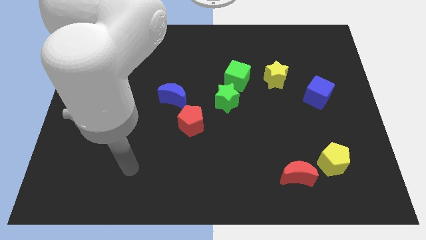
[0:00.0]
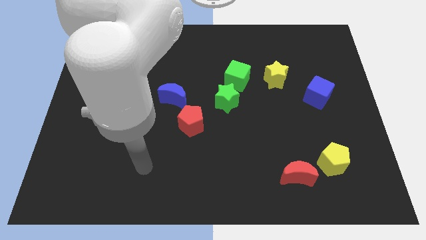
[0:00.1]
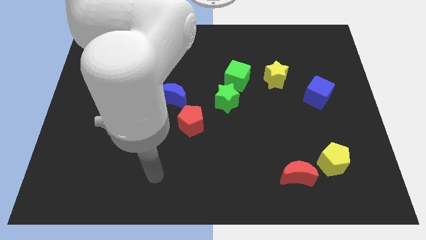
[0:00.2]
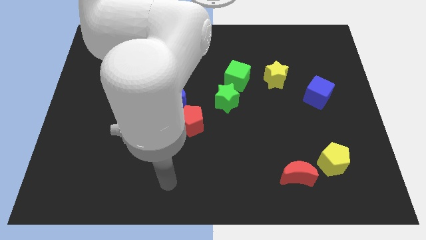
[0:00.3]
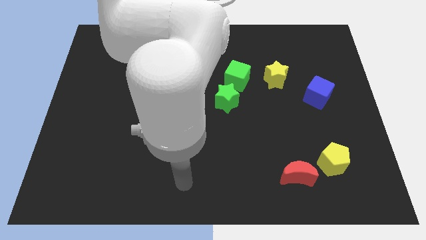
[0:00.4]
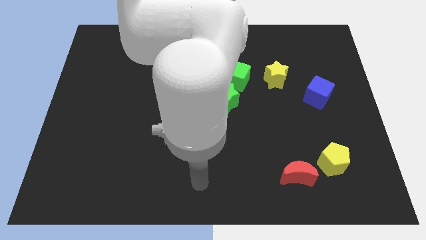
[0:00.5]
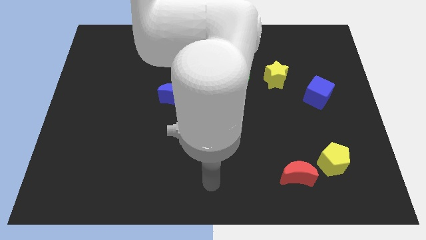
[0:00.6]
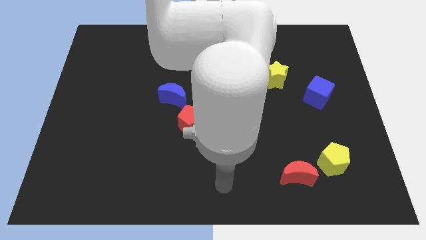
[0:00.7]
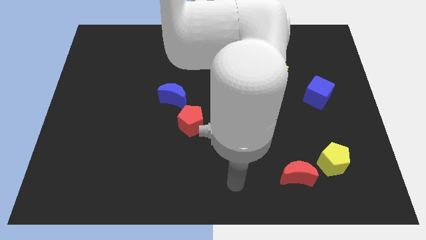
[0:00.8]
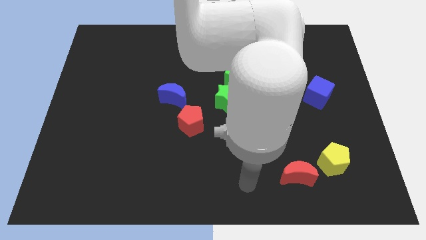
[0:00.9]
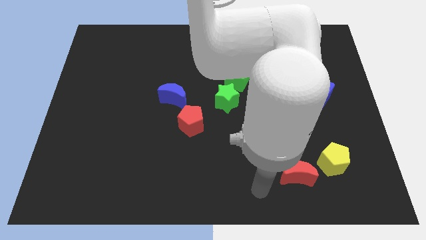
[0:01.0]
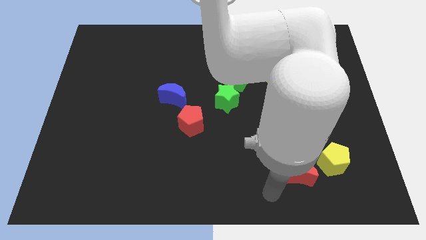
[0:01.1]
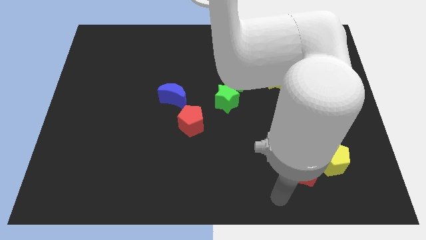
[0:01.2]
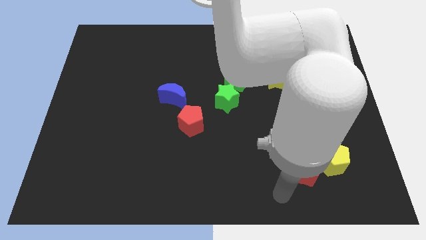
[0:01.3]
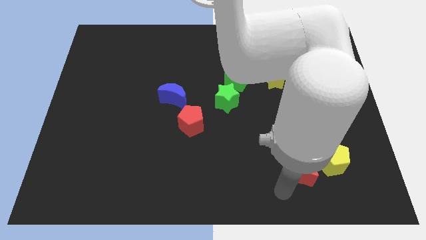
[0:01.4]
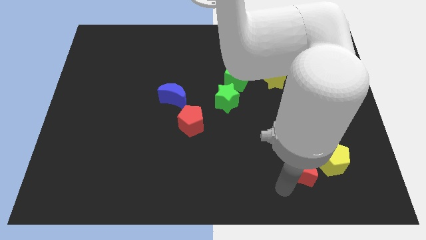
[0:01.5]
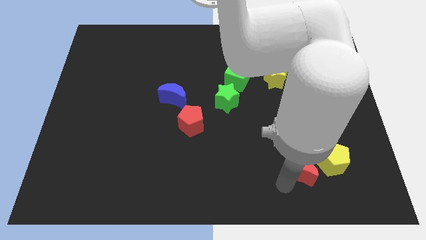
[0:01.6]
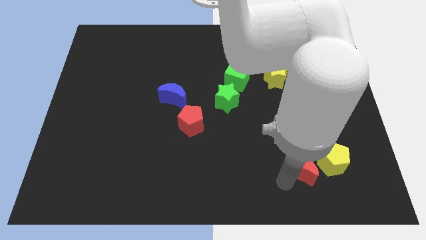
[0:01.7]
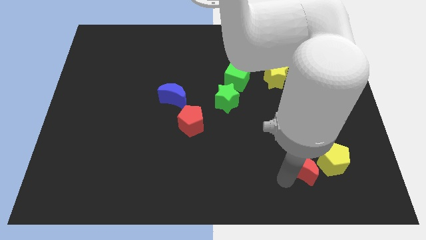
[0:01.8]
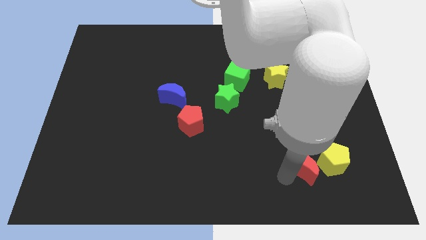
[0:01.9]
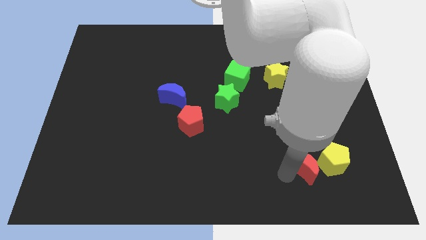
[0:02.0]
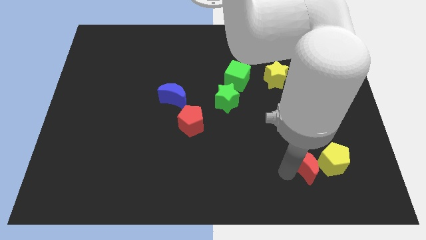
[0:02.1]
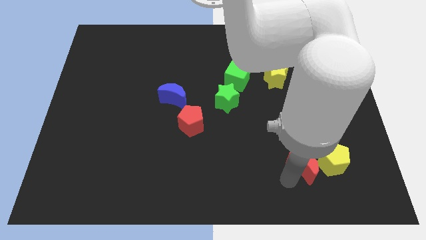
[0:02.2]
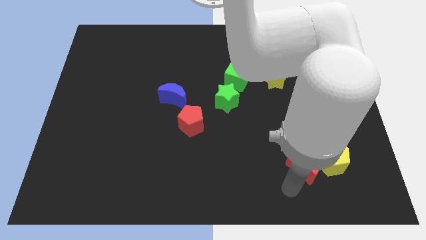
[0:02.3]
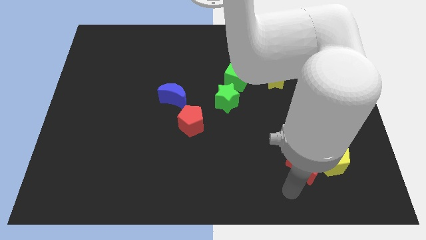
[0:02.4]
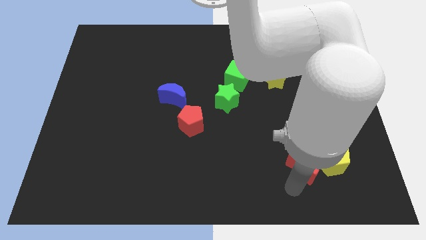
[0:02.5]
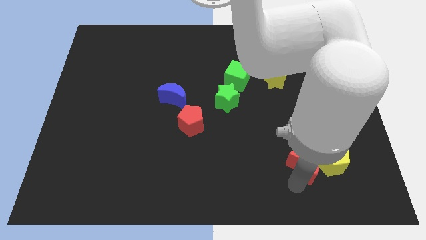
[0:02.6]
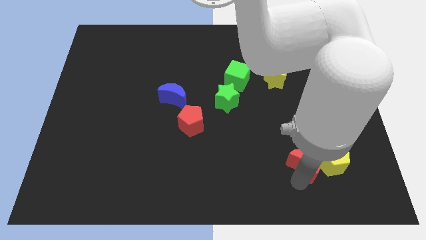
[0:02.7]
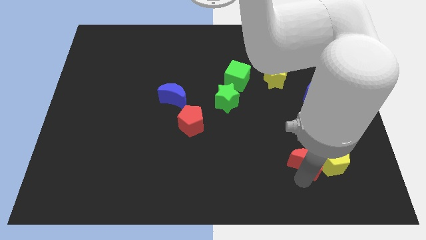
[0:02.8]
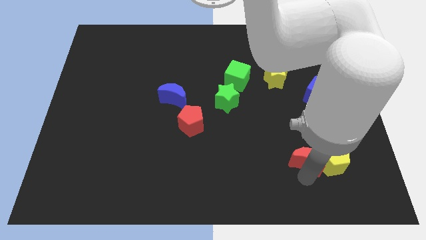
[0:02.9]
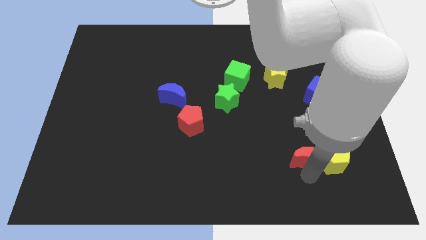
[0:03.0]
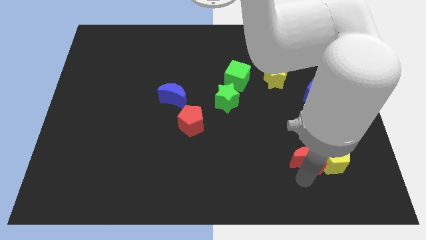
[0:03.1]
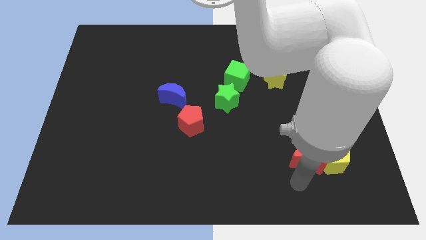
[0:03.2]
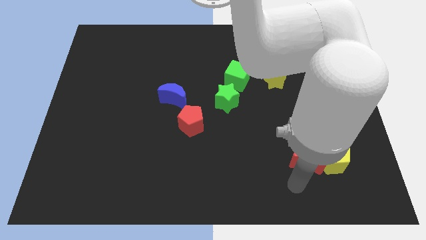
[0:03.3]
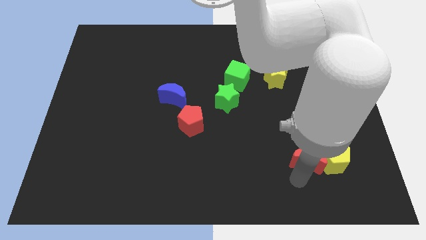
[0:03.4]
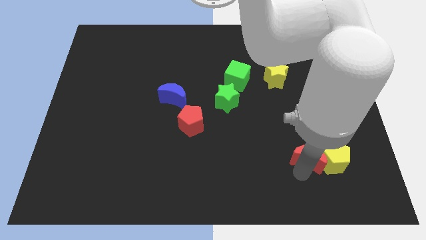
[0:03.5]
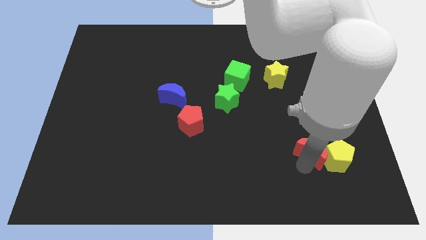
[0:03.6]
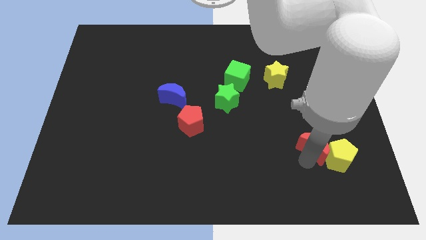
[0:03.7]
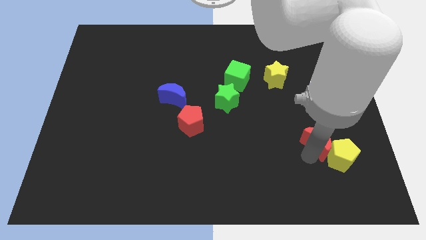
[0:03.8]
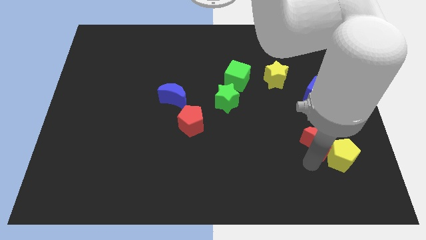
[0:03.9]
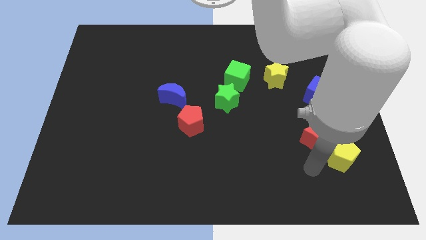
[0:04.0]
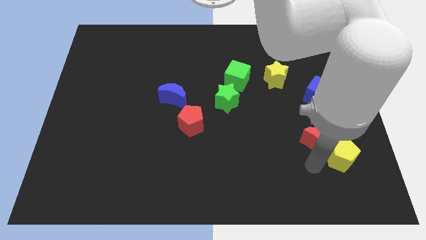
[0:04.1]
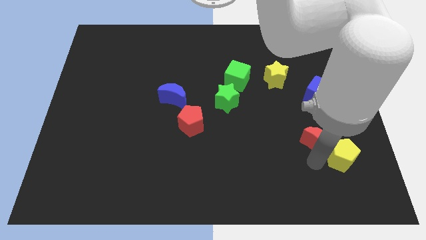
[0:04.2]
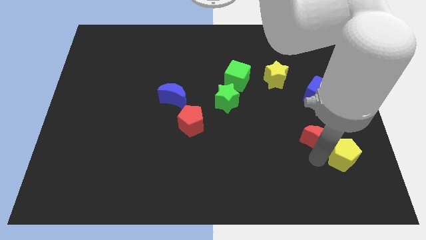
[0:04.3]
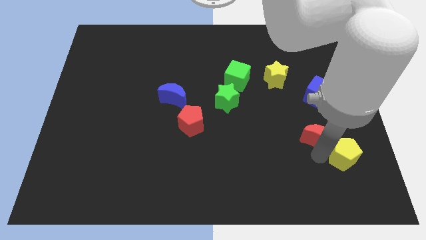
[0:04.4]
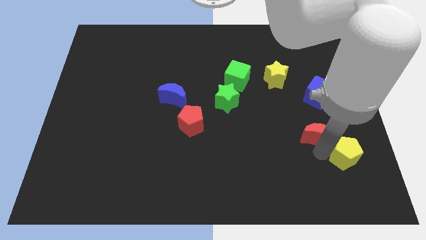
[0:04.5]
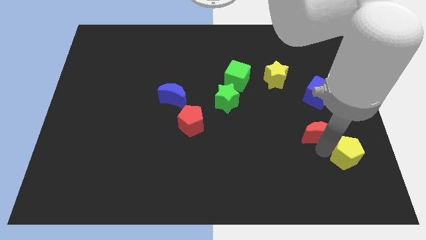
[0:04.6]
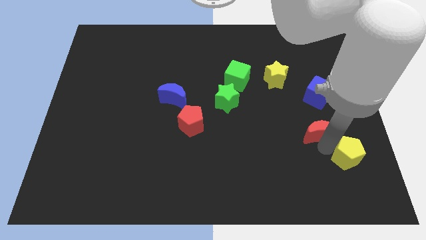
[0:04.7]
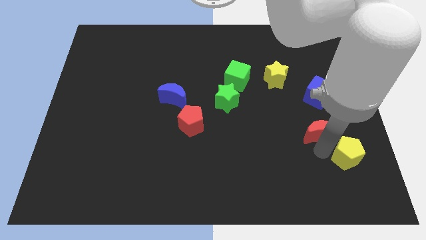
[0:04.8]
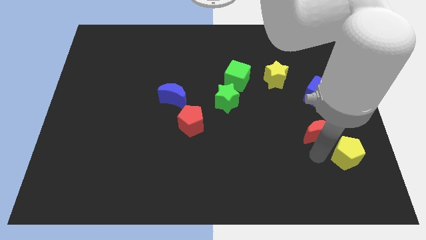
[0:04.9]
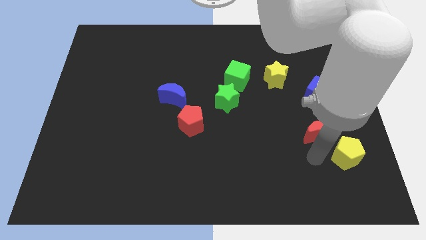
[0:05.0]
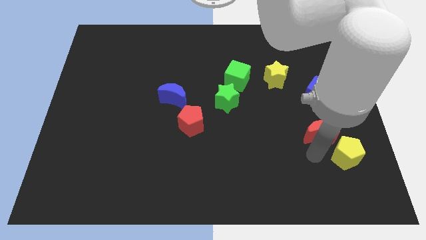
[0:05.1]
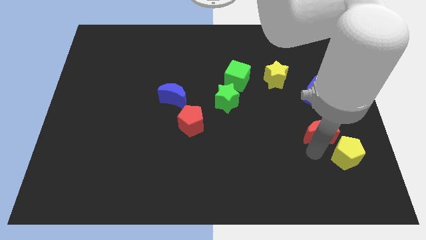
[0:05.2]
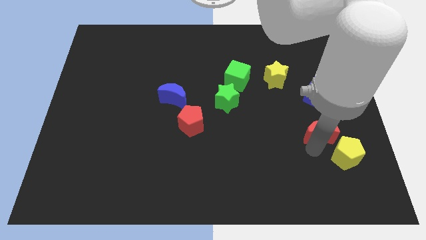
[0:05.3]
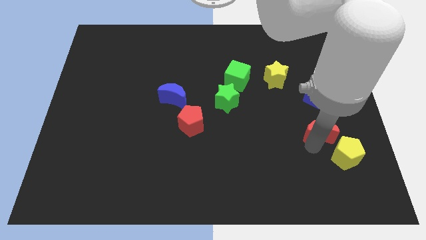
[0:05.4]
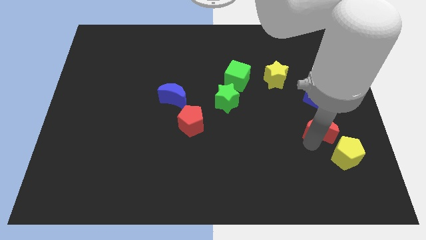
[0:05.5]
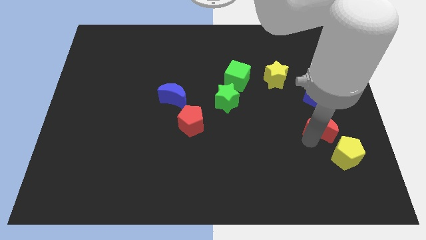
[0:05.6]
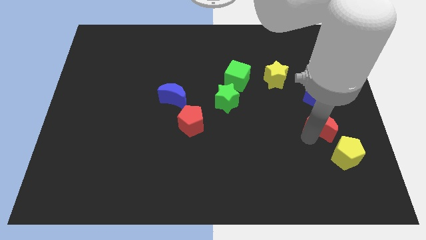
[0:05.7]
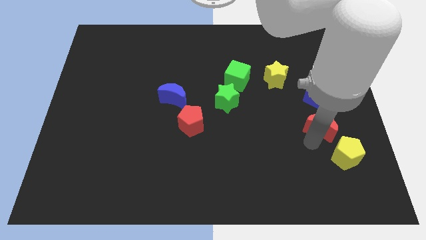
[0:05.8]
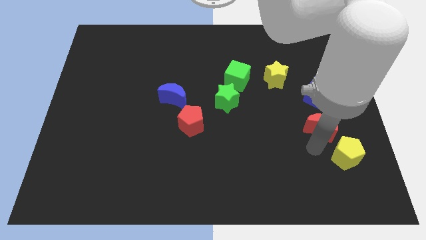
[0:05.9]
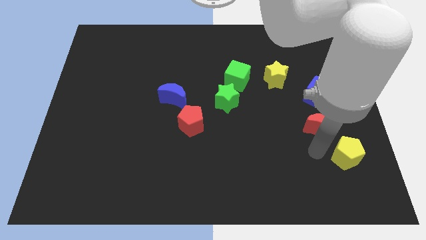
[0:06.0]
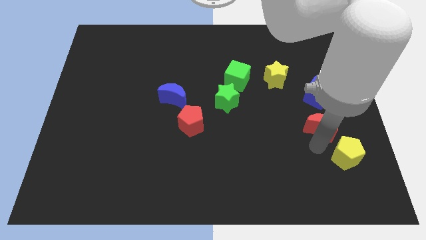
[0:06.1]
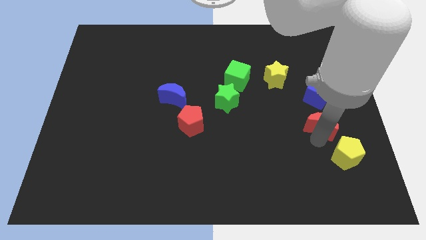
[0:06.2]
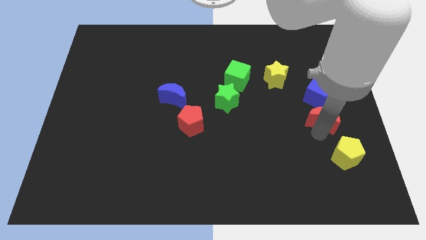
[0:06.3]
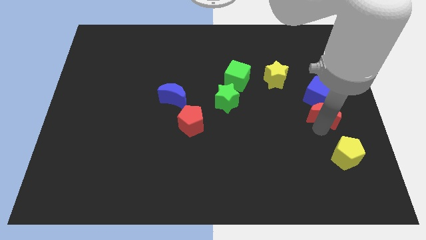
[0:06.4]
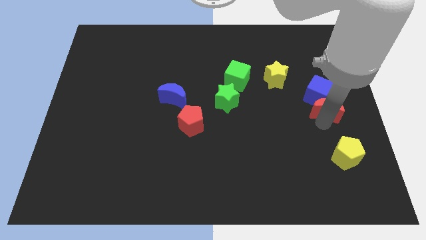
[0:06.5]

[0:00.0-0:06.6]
put the red moon towards the blue cube
